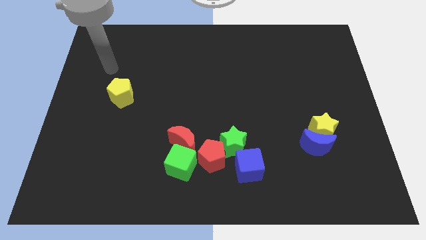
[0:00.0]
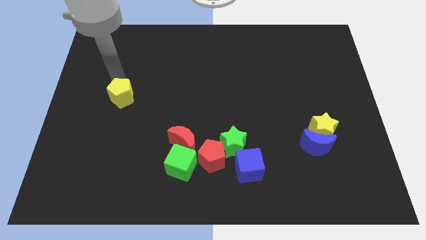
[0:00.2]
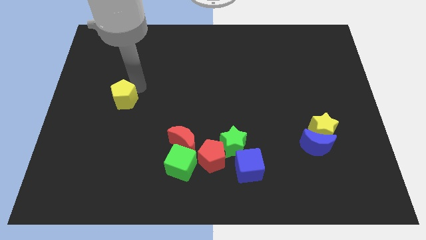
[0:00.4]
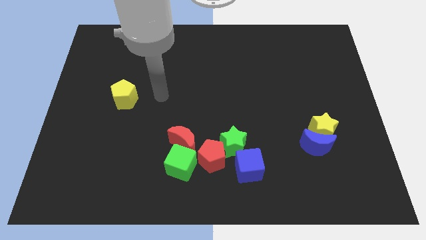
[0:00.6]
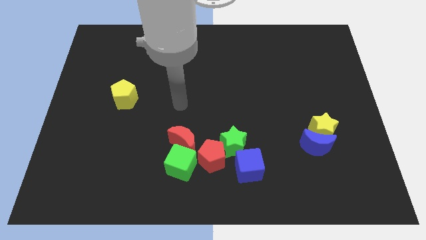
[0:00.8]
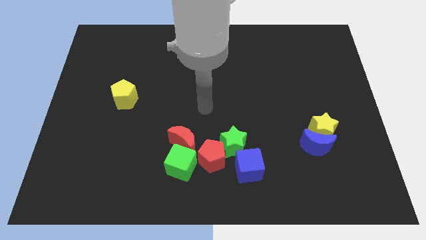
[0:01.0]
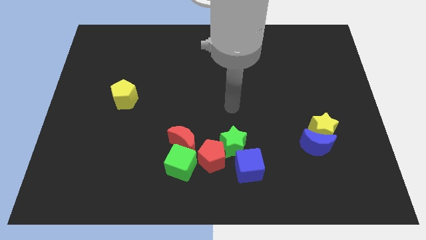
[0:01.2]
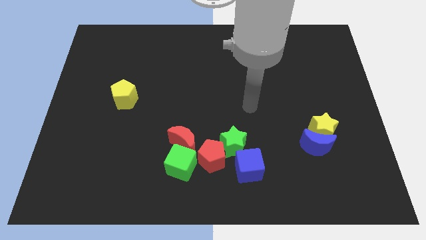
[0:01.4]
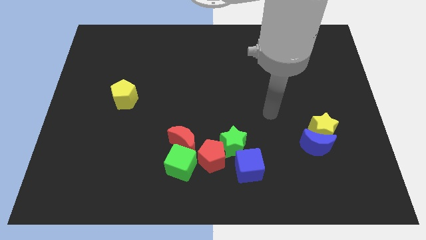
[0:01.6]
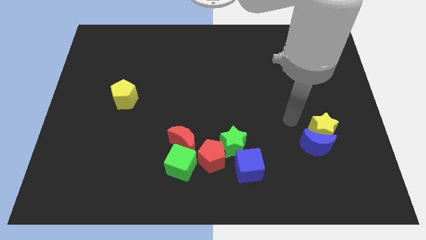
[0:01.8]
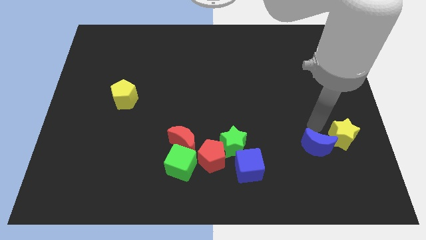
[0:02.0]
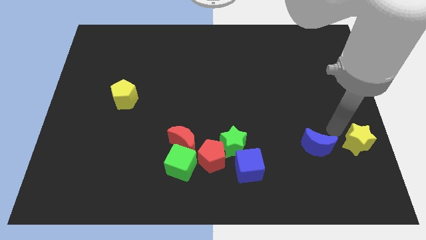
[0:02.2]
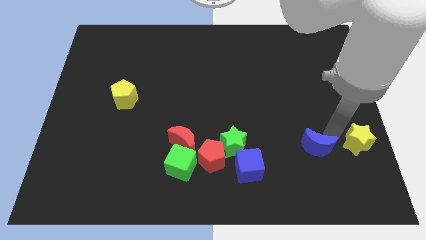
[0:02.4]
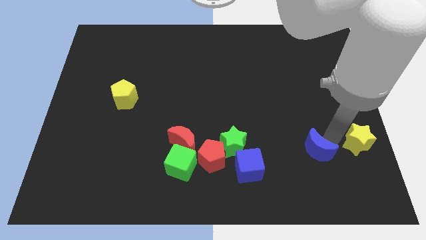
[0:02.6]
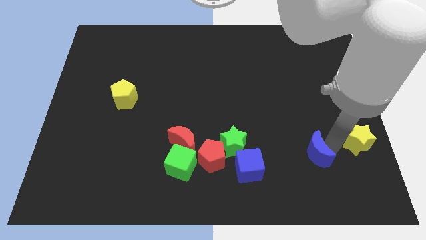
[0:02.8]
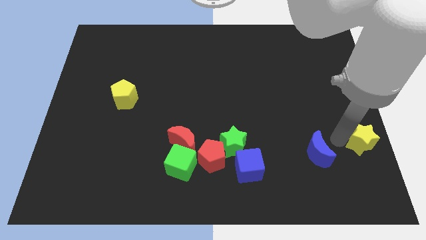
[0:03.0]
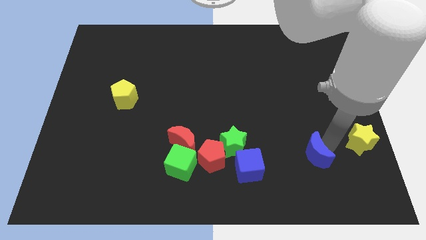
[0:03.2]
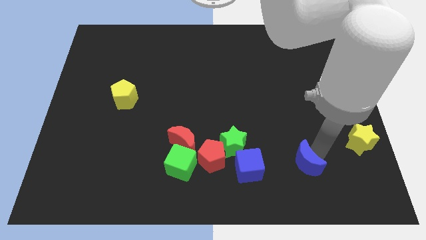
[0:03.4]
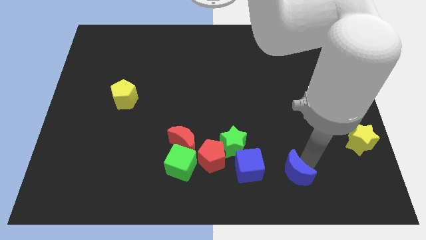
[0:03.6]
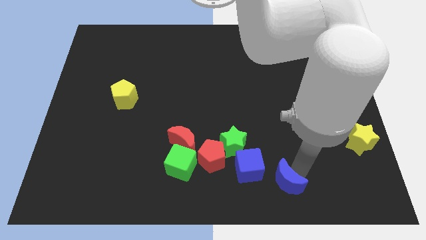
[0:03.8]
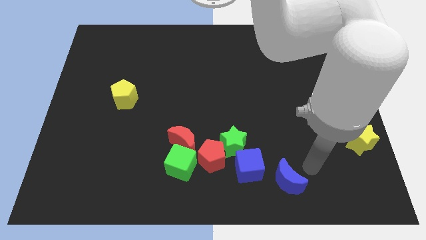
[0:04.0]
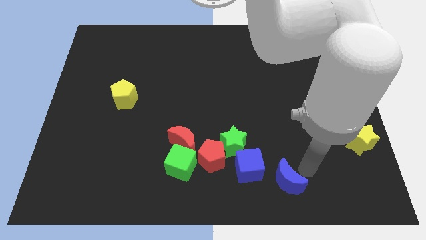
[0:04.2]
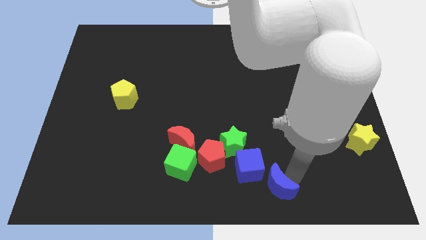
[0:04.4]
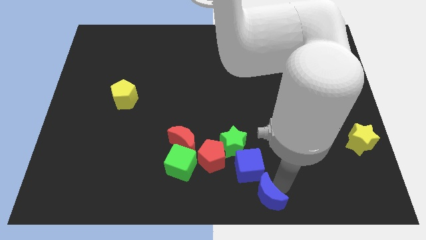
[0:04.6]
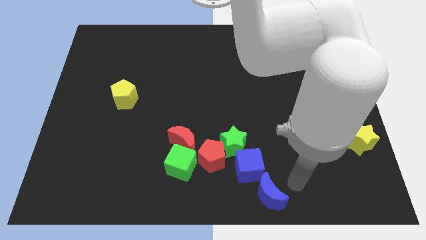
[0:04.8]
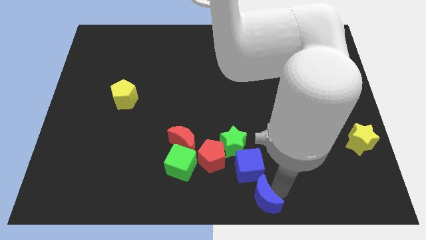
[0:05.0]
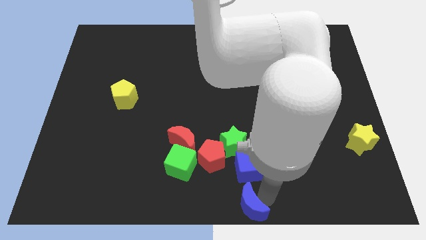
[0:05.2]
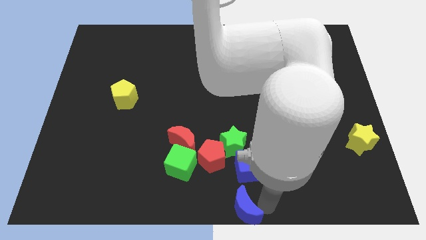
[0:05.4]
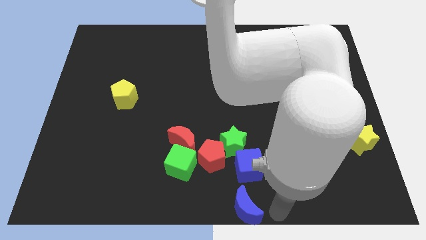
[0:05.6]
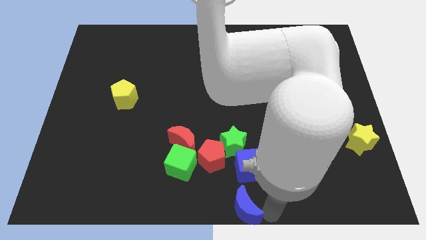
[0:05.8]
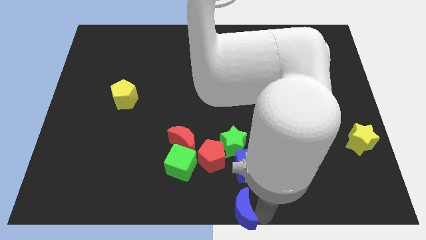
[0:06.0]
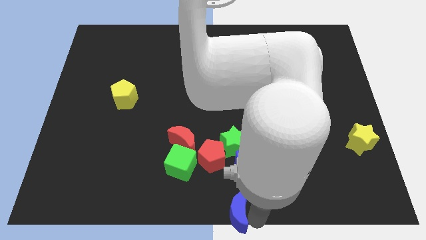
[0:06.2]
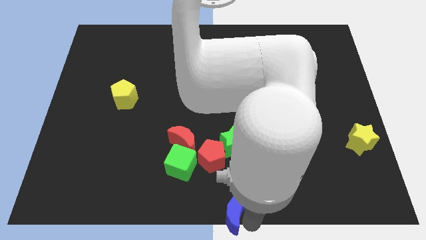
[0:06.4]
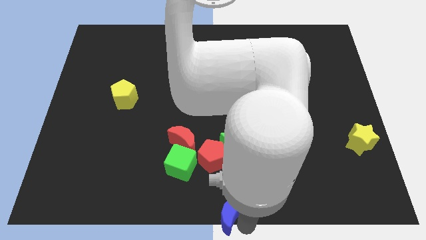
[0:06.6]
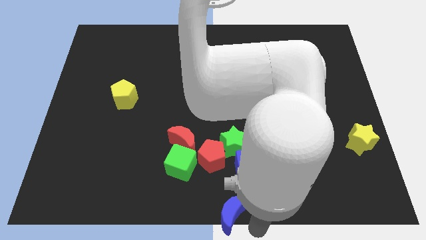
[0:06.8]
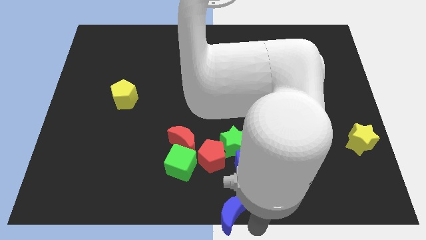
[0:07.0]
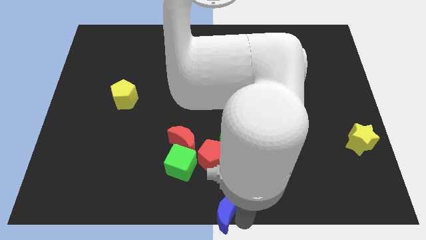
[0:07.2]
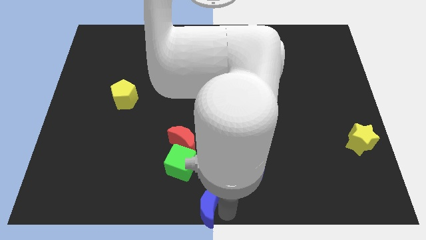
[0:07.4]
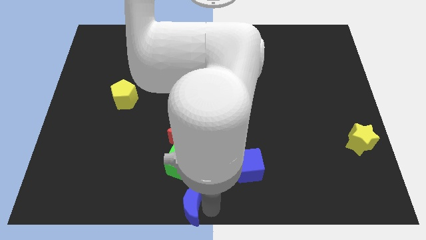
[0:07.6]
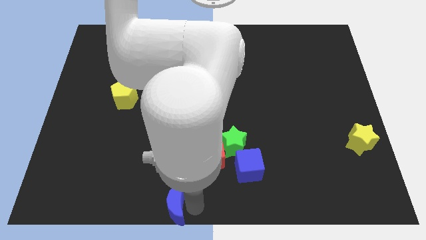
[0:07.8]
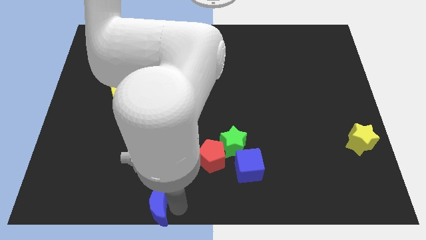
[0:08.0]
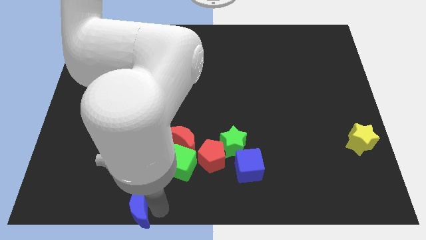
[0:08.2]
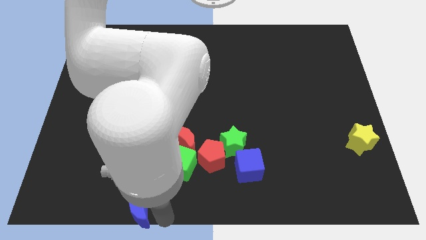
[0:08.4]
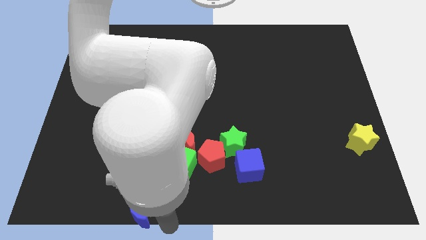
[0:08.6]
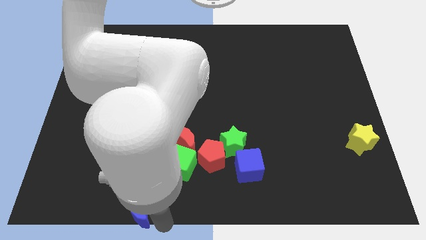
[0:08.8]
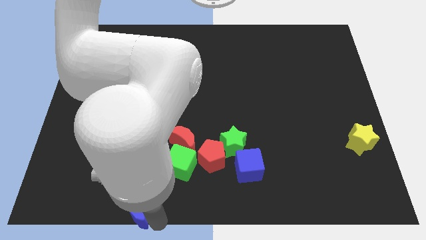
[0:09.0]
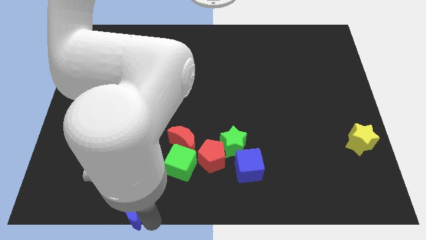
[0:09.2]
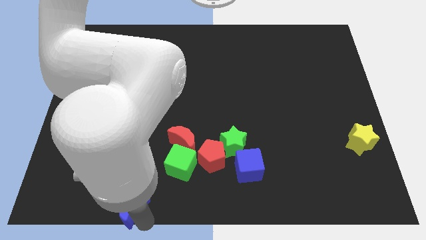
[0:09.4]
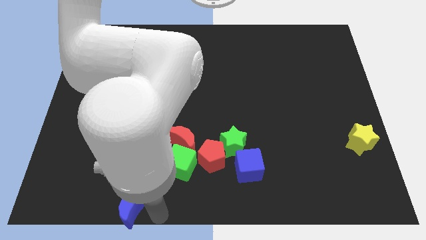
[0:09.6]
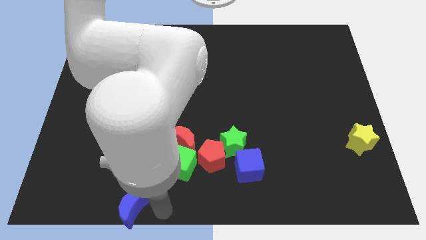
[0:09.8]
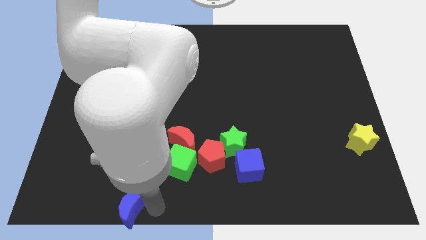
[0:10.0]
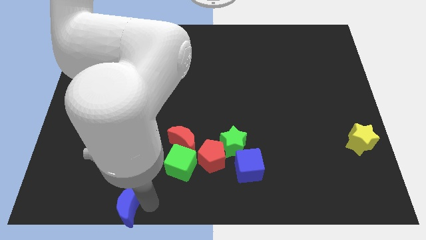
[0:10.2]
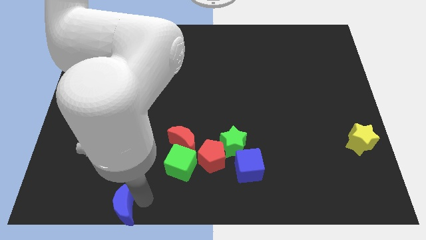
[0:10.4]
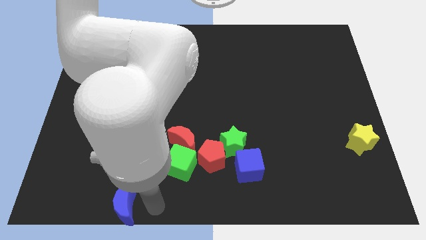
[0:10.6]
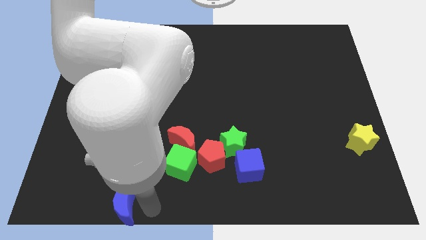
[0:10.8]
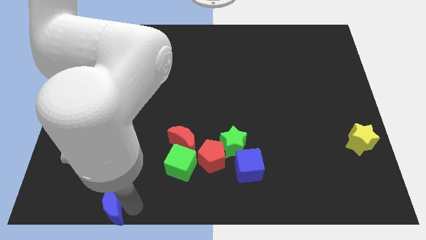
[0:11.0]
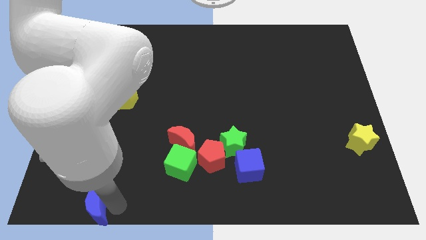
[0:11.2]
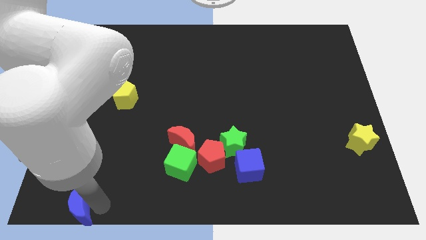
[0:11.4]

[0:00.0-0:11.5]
move the blue moon to the bottom left of the board

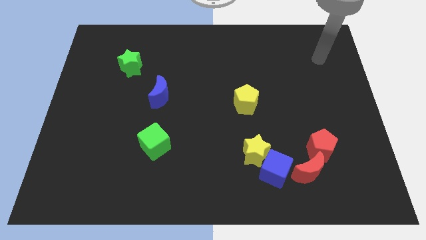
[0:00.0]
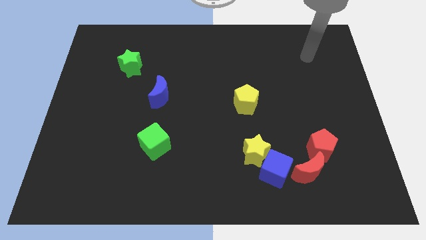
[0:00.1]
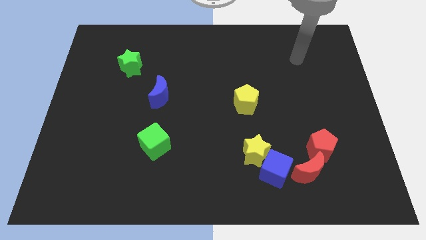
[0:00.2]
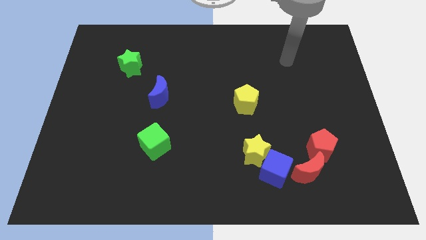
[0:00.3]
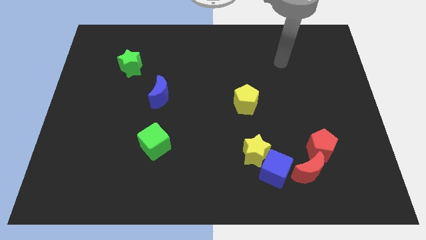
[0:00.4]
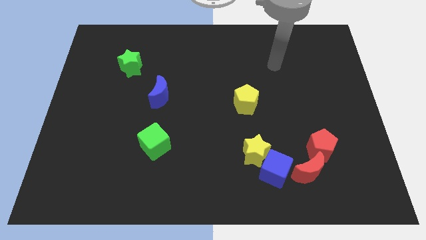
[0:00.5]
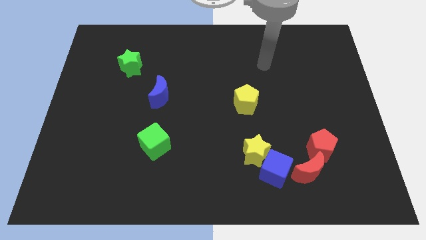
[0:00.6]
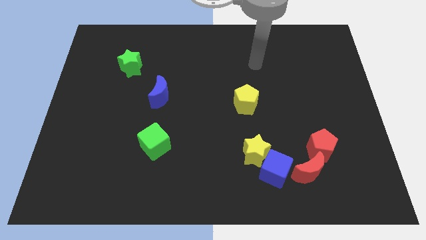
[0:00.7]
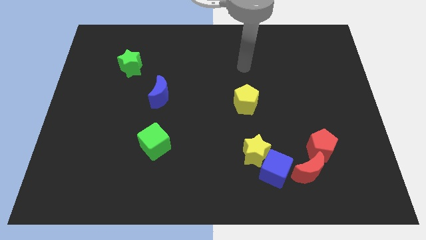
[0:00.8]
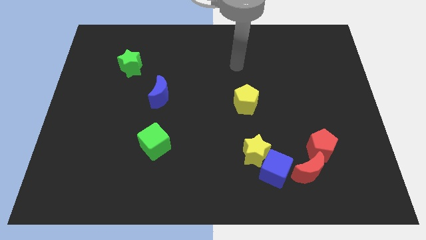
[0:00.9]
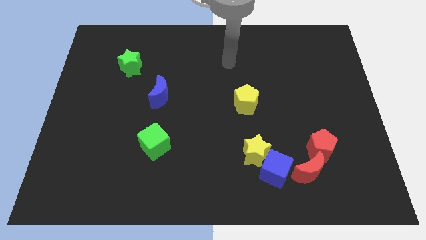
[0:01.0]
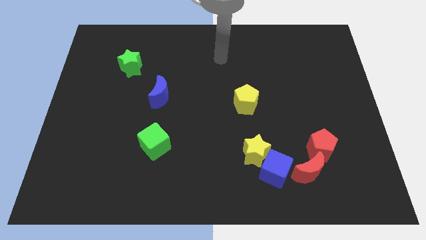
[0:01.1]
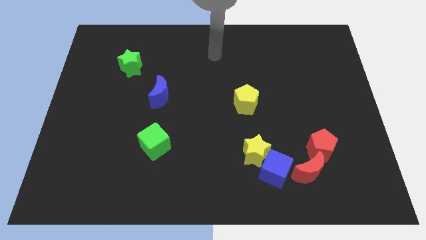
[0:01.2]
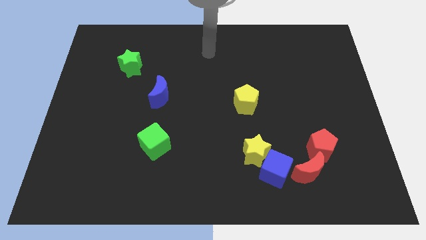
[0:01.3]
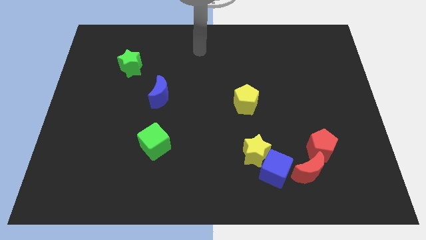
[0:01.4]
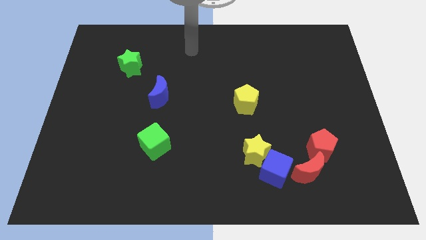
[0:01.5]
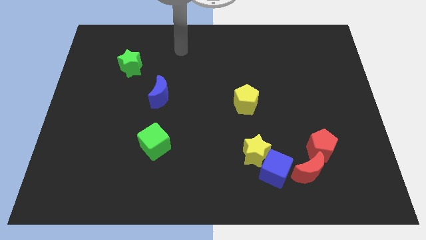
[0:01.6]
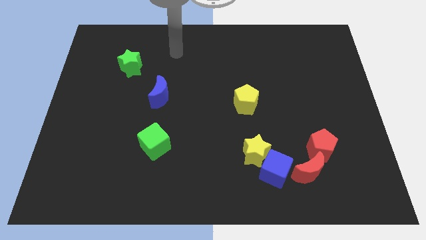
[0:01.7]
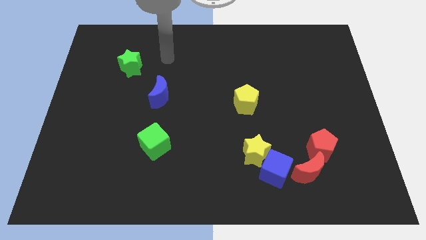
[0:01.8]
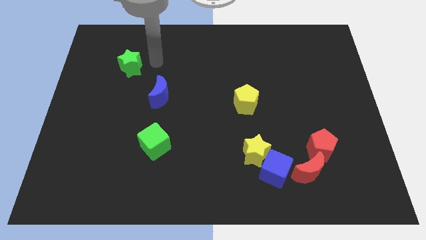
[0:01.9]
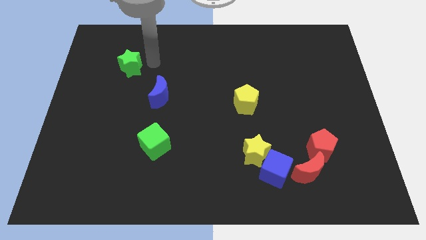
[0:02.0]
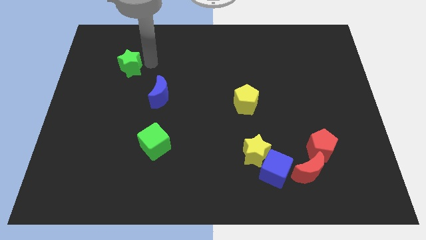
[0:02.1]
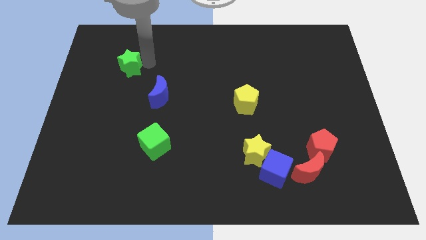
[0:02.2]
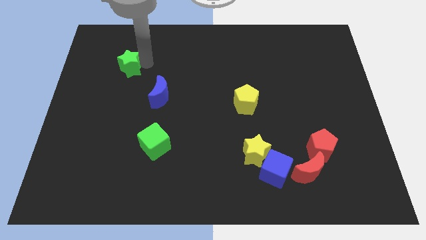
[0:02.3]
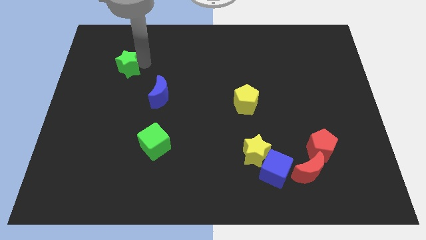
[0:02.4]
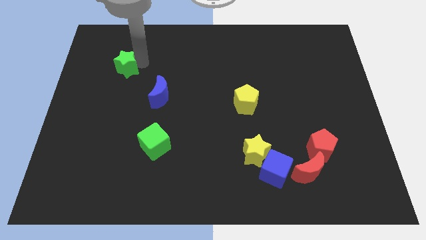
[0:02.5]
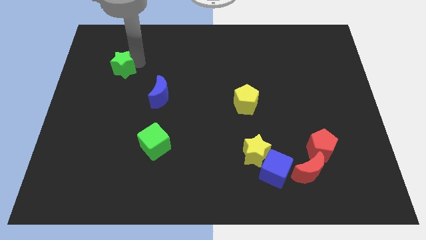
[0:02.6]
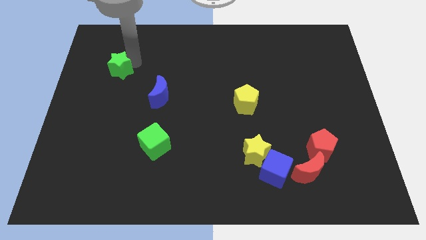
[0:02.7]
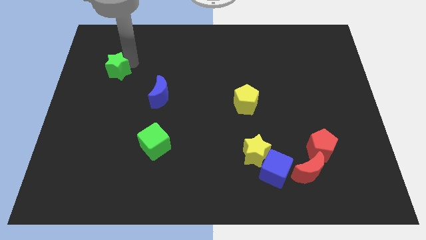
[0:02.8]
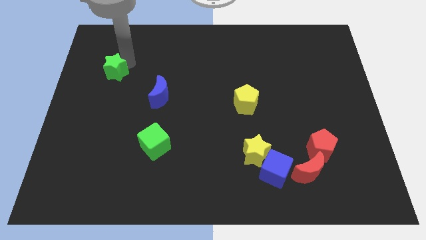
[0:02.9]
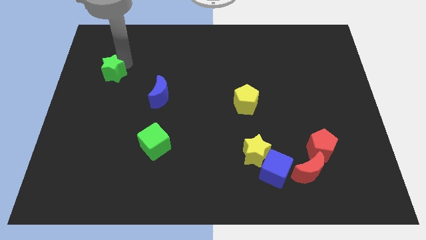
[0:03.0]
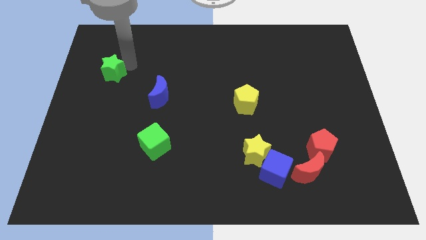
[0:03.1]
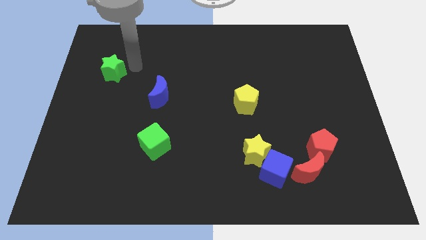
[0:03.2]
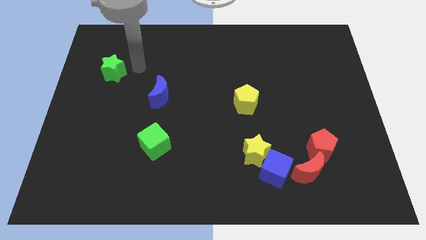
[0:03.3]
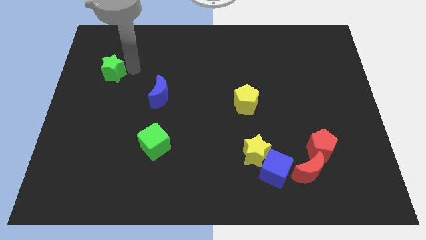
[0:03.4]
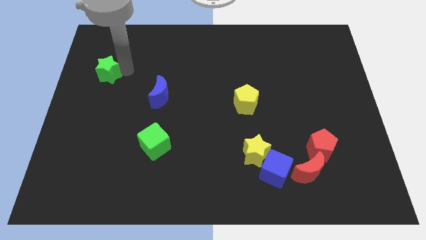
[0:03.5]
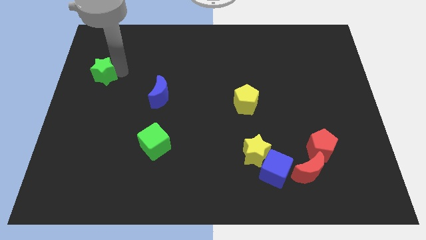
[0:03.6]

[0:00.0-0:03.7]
move the green star to the center left
